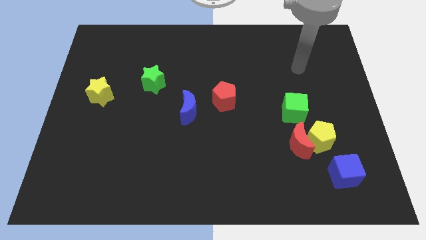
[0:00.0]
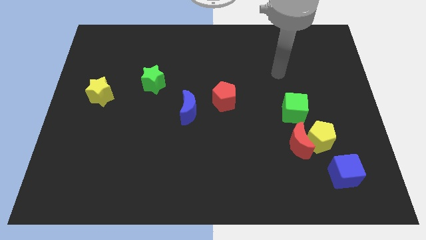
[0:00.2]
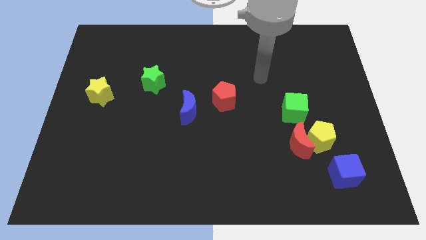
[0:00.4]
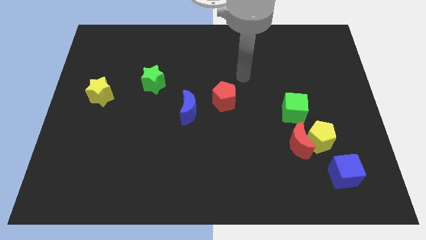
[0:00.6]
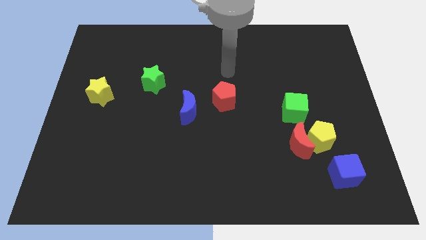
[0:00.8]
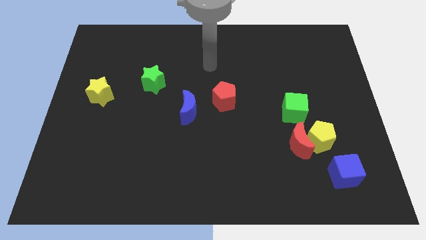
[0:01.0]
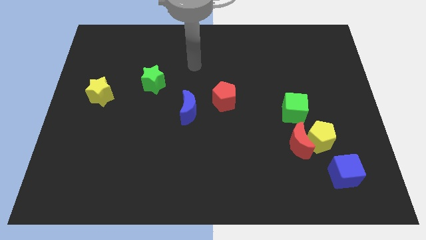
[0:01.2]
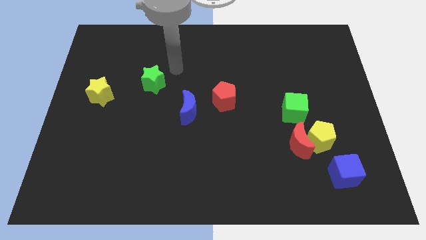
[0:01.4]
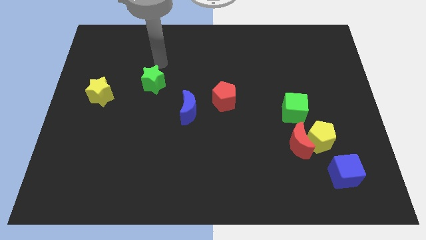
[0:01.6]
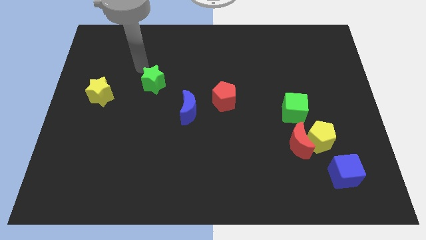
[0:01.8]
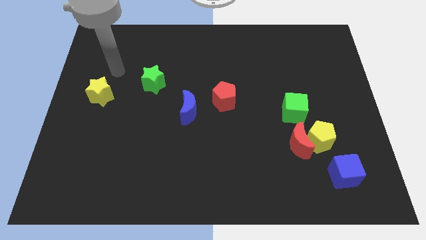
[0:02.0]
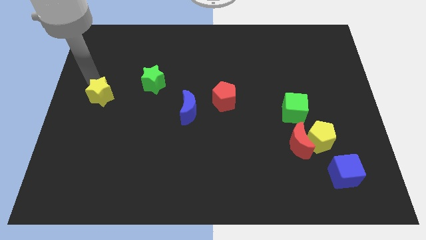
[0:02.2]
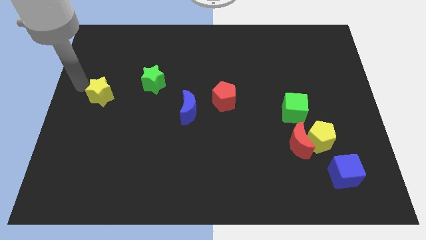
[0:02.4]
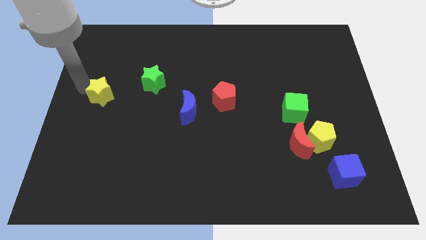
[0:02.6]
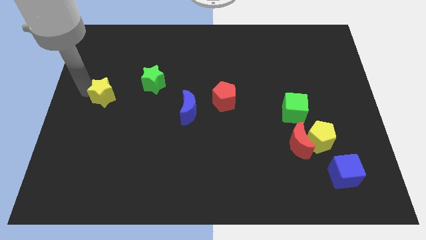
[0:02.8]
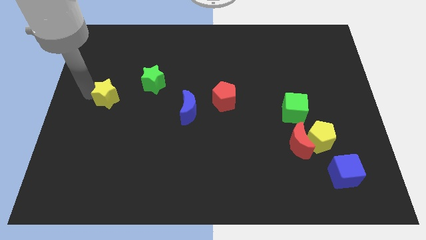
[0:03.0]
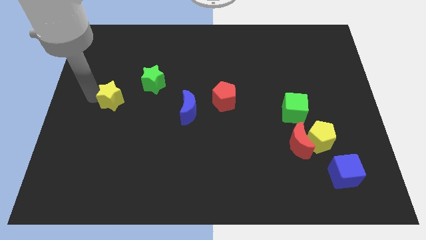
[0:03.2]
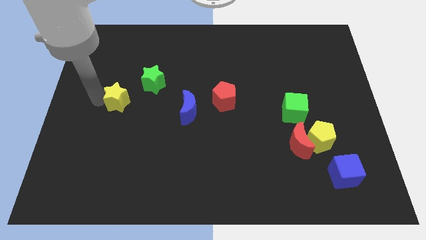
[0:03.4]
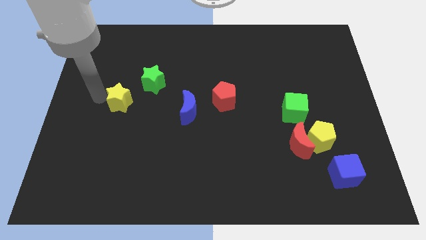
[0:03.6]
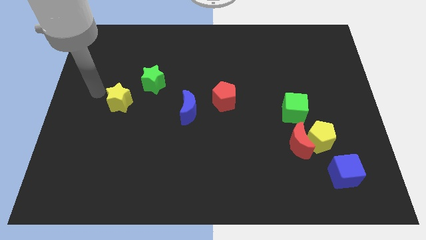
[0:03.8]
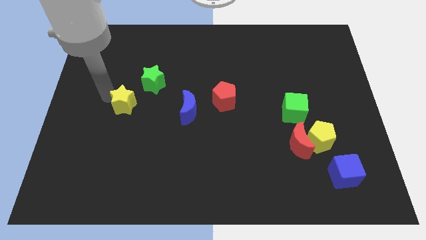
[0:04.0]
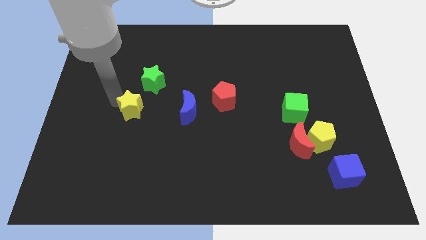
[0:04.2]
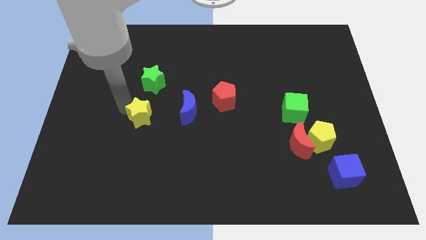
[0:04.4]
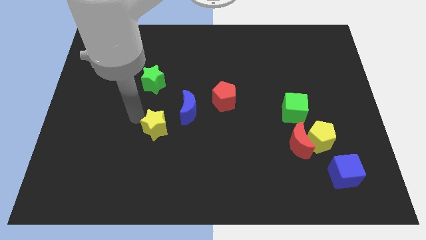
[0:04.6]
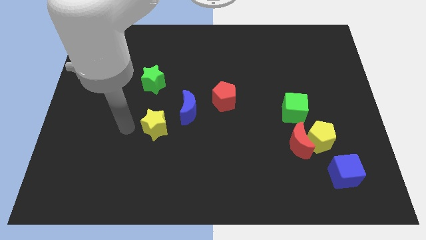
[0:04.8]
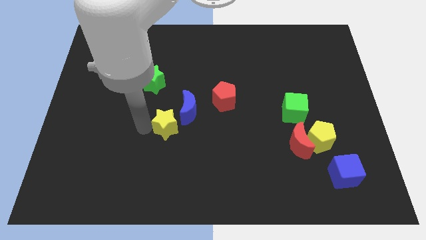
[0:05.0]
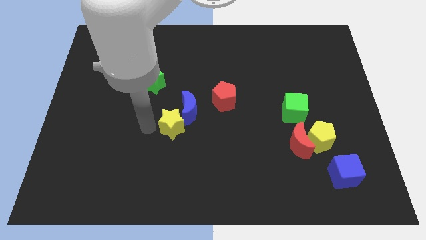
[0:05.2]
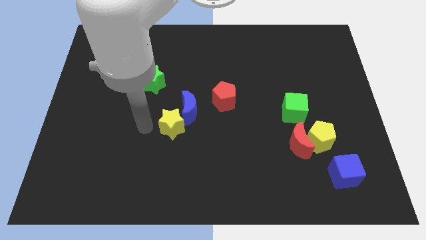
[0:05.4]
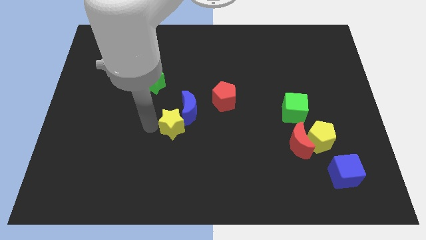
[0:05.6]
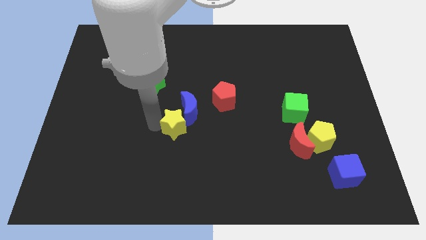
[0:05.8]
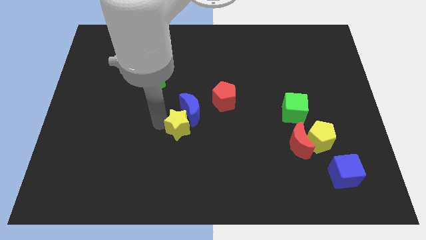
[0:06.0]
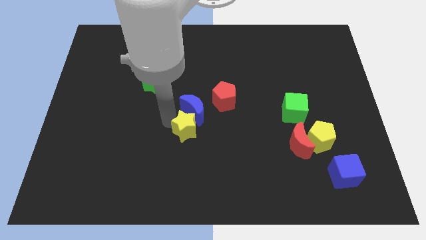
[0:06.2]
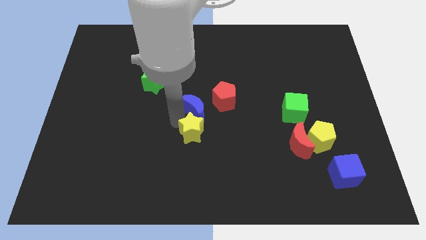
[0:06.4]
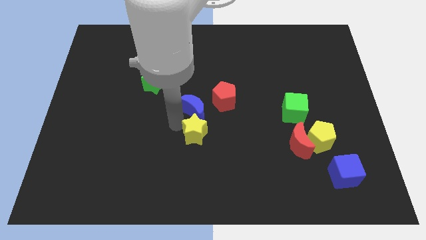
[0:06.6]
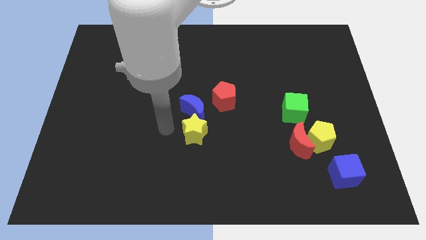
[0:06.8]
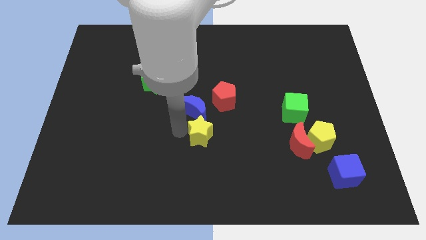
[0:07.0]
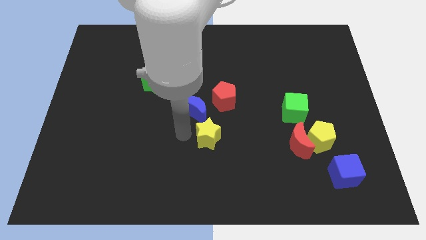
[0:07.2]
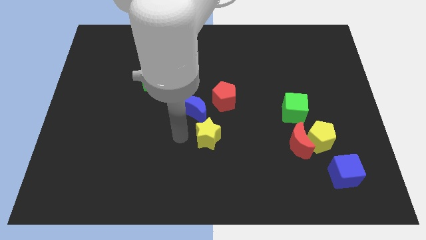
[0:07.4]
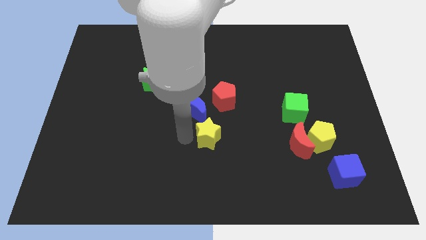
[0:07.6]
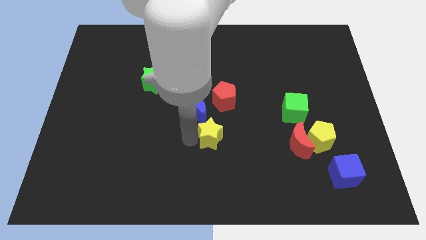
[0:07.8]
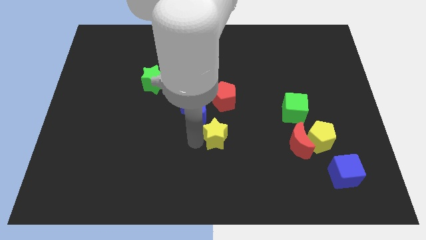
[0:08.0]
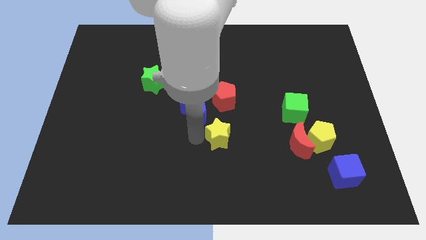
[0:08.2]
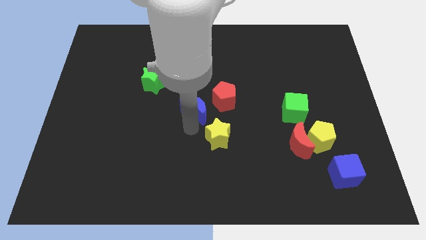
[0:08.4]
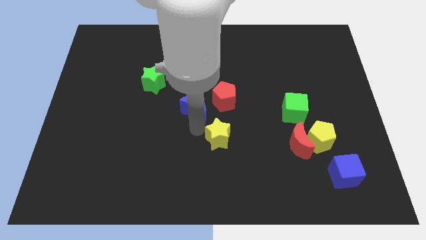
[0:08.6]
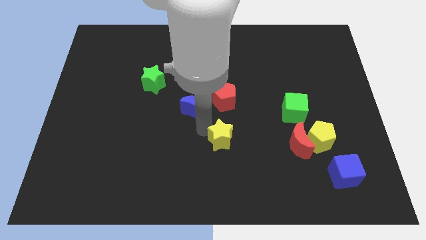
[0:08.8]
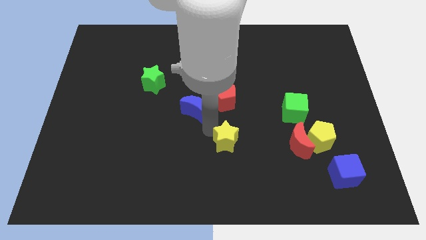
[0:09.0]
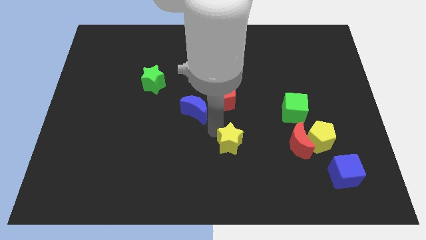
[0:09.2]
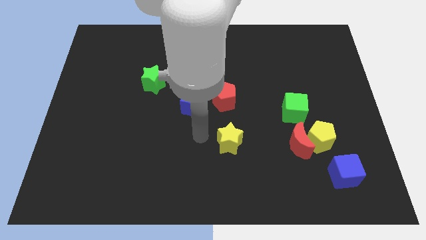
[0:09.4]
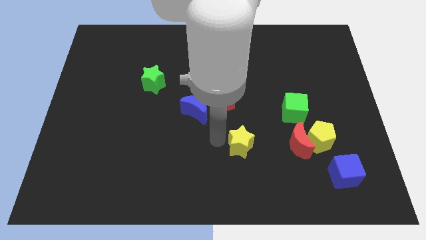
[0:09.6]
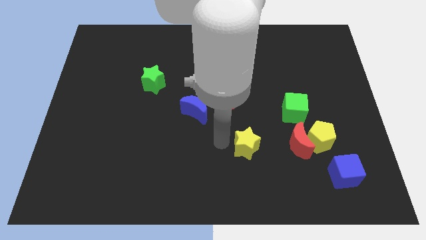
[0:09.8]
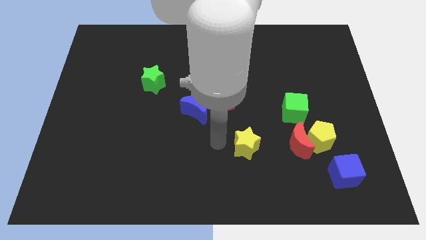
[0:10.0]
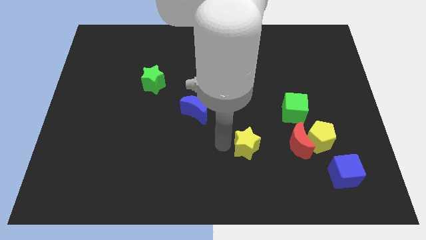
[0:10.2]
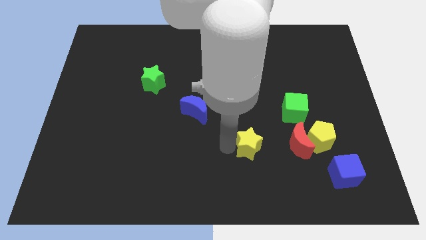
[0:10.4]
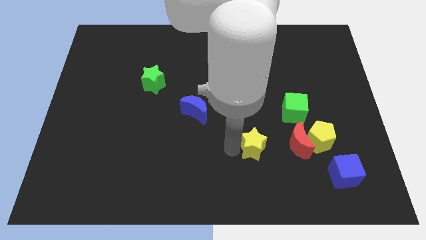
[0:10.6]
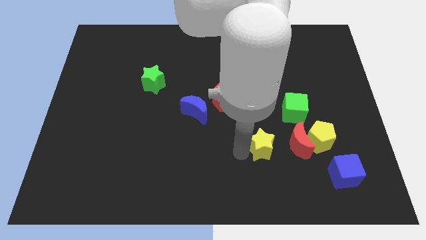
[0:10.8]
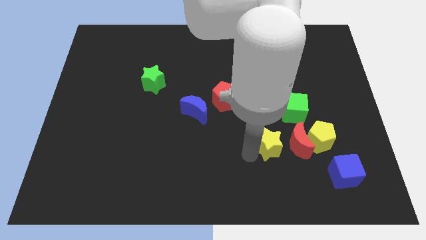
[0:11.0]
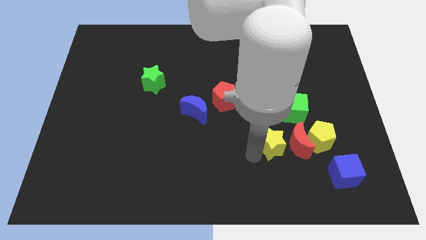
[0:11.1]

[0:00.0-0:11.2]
move the yellow star next to the red moon
